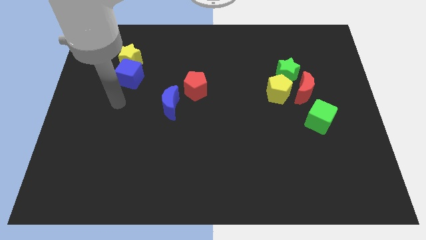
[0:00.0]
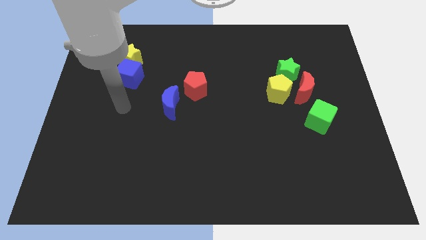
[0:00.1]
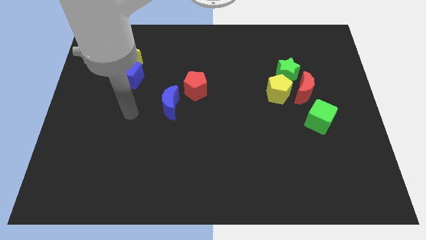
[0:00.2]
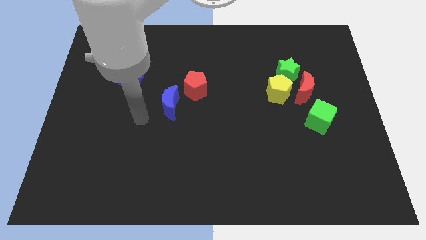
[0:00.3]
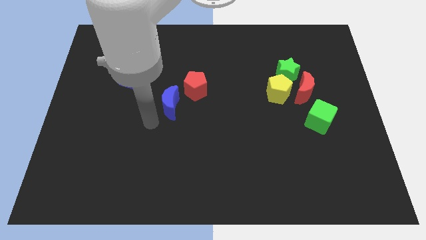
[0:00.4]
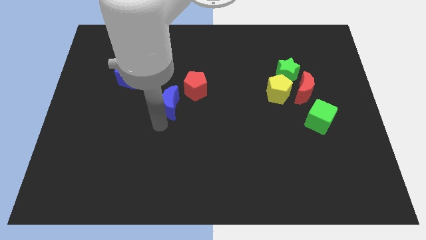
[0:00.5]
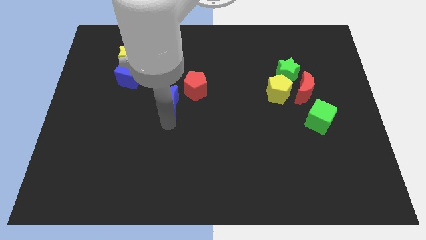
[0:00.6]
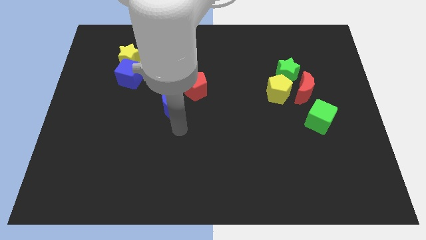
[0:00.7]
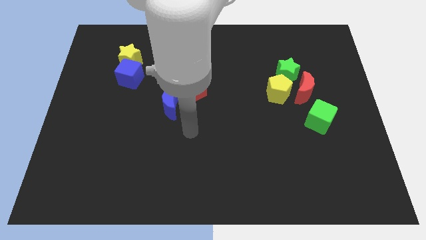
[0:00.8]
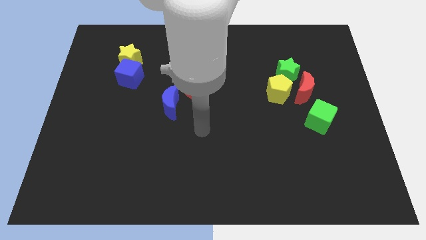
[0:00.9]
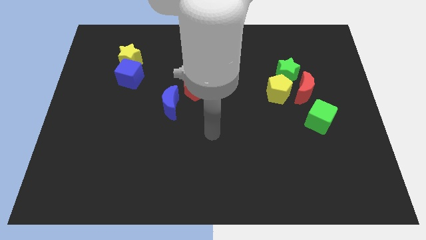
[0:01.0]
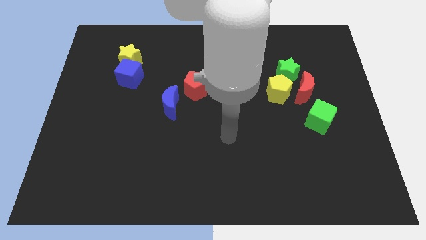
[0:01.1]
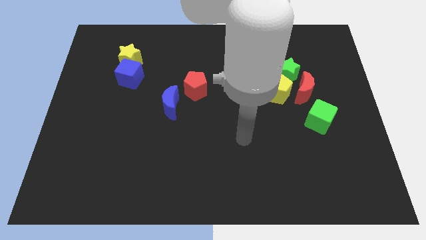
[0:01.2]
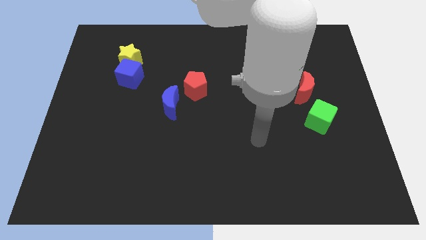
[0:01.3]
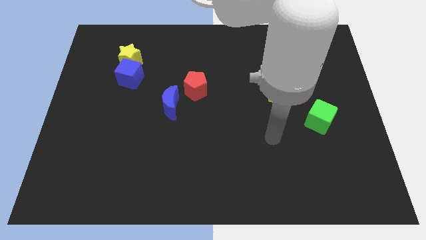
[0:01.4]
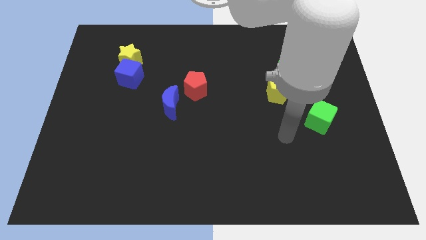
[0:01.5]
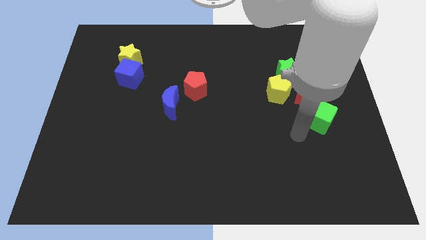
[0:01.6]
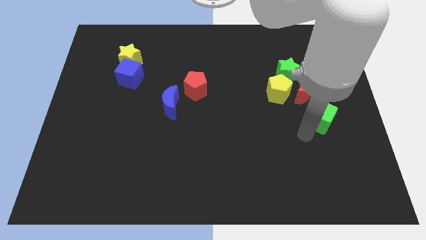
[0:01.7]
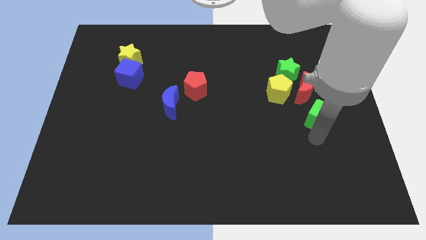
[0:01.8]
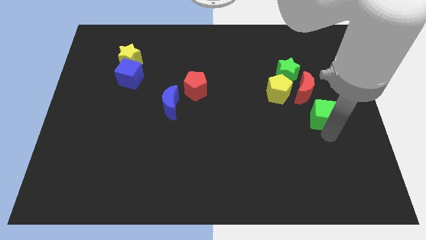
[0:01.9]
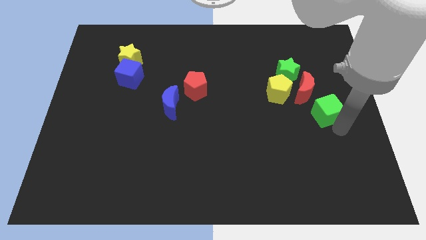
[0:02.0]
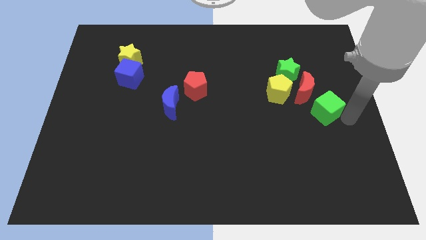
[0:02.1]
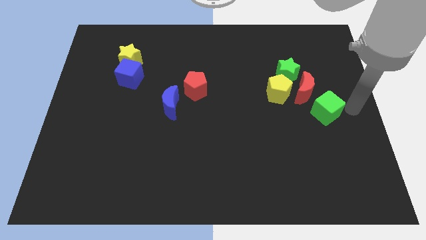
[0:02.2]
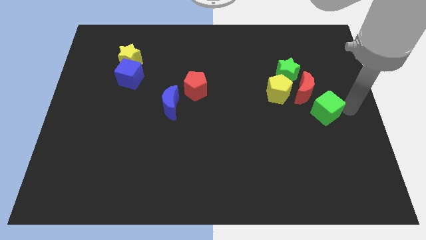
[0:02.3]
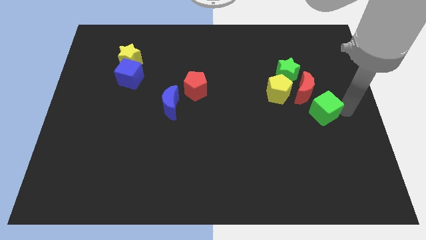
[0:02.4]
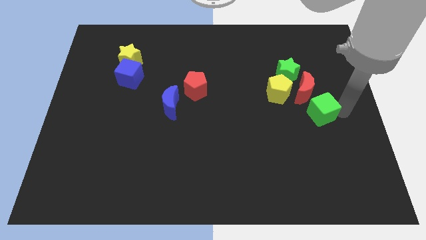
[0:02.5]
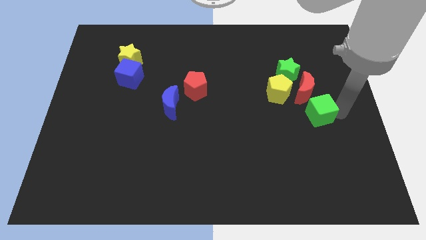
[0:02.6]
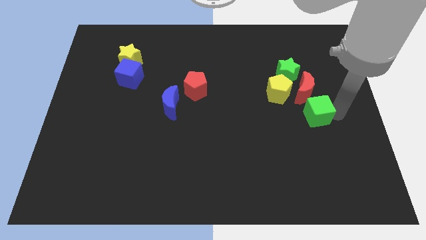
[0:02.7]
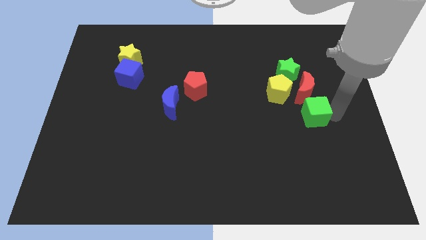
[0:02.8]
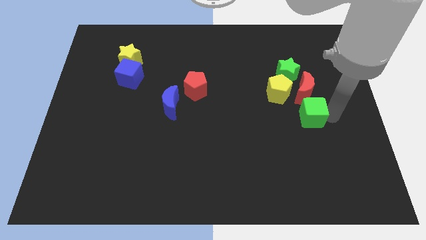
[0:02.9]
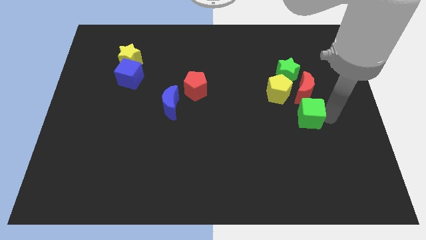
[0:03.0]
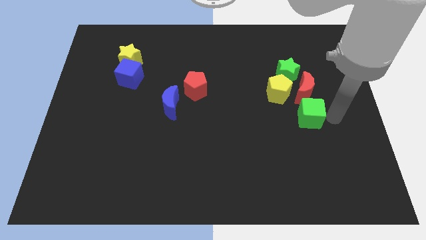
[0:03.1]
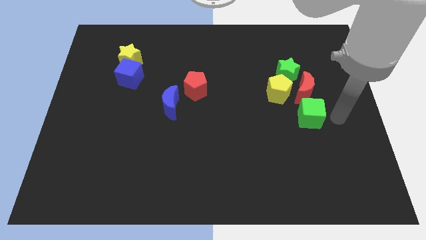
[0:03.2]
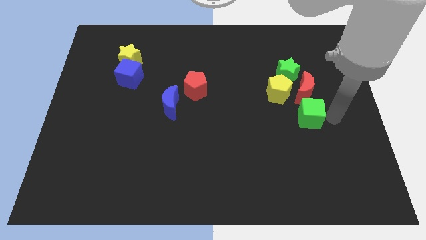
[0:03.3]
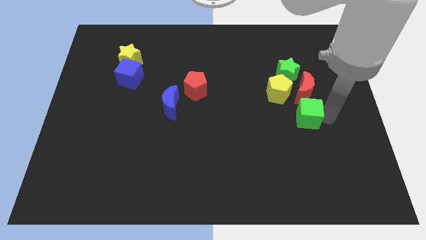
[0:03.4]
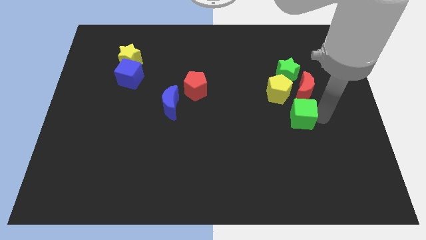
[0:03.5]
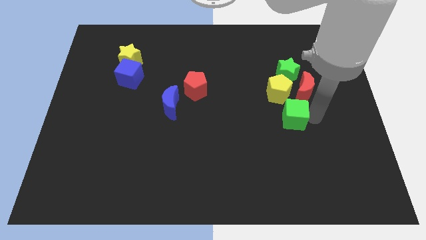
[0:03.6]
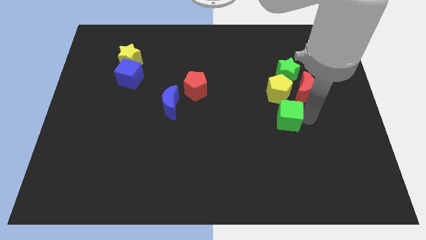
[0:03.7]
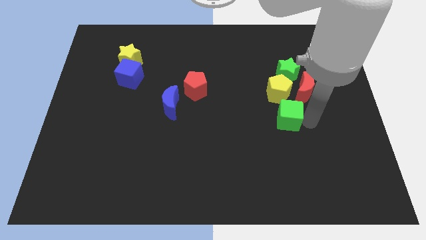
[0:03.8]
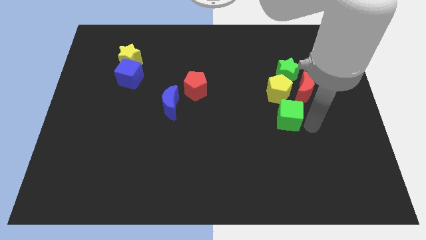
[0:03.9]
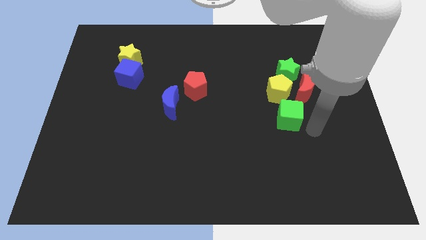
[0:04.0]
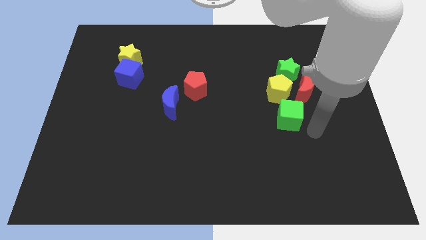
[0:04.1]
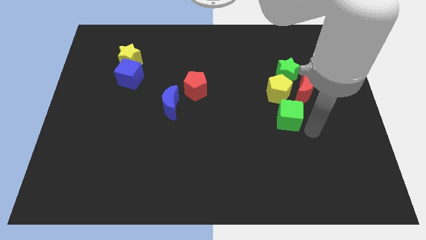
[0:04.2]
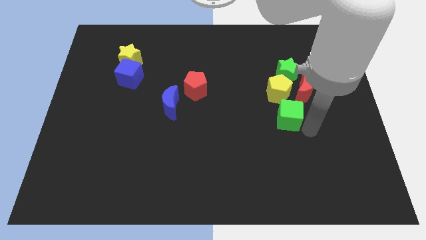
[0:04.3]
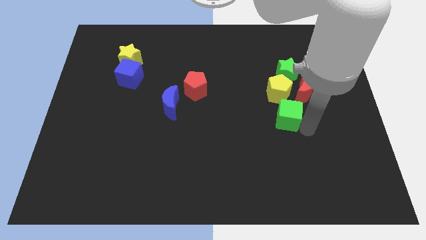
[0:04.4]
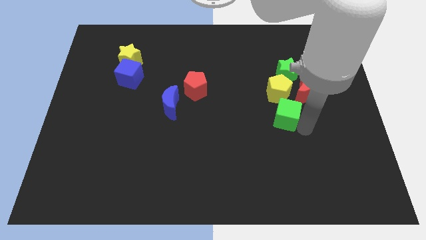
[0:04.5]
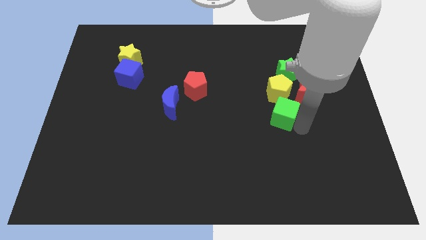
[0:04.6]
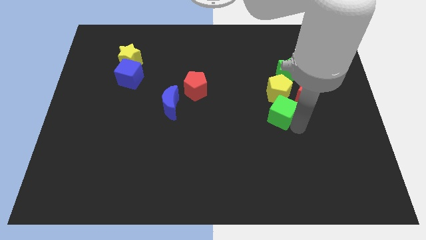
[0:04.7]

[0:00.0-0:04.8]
slide the green cube diagonally down and to the left of the yellow pentagon

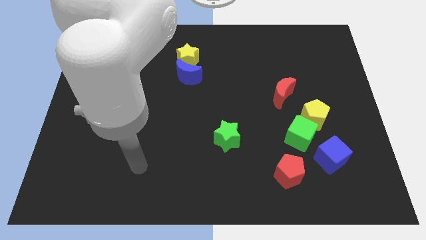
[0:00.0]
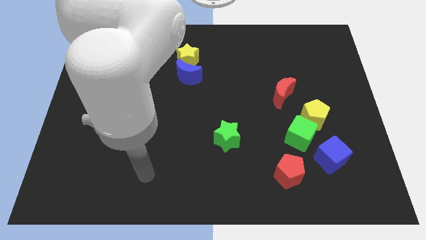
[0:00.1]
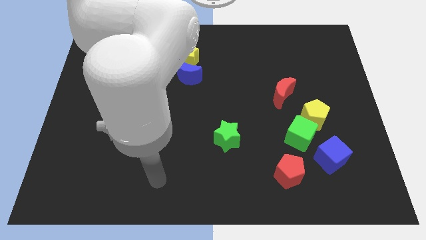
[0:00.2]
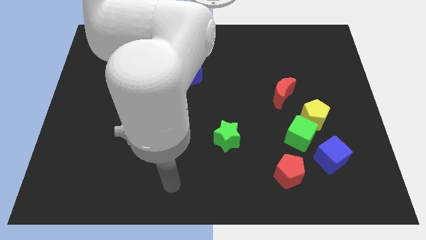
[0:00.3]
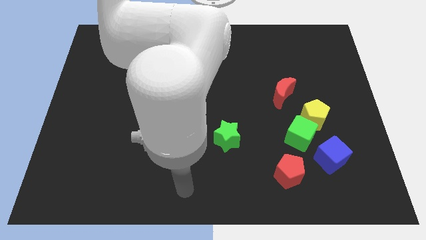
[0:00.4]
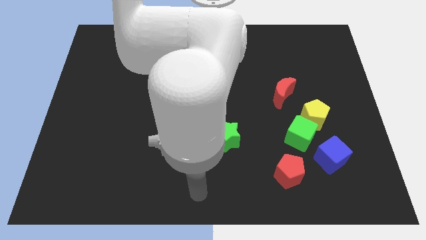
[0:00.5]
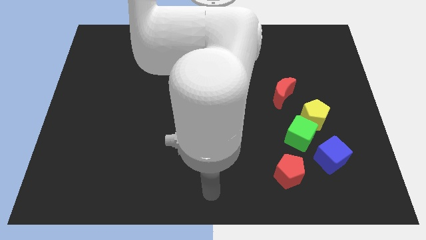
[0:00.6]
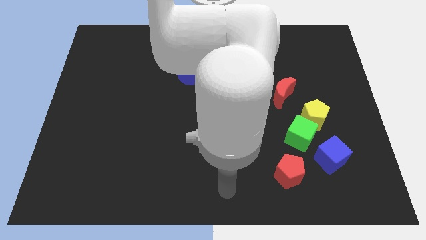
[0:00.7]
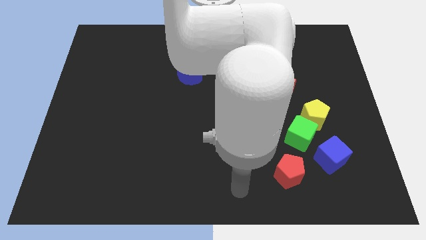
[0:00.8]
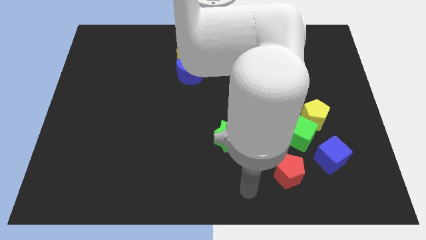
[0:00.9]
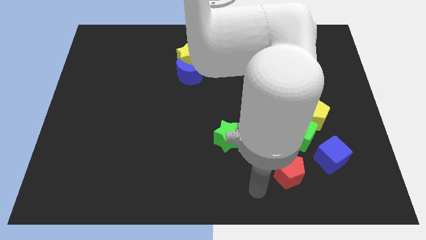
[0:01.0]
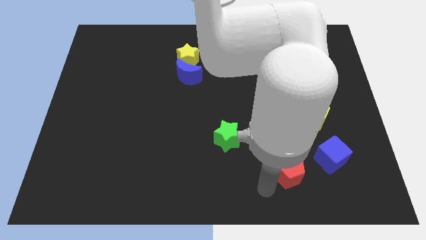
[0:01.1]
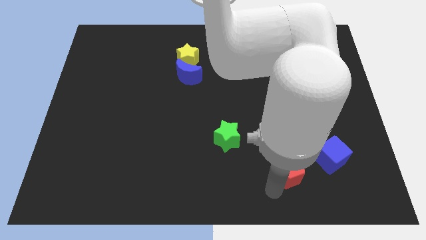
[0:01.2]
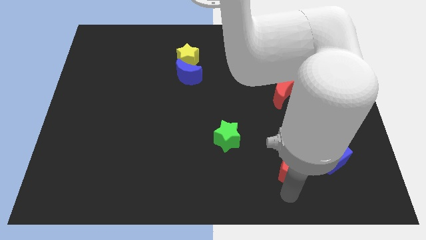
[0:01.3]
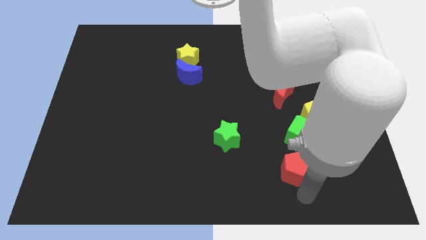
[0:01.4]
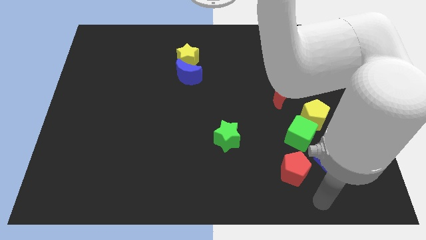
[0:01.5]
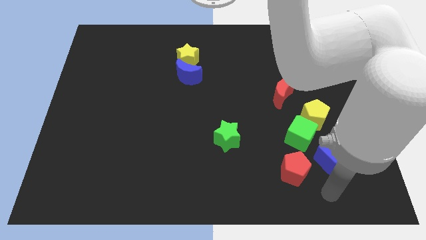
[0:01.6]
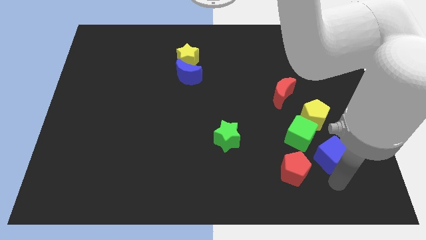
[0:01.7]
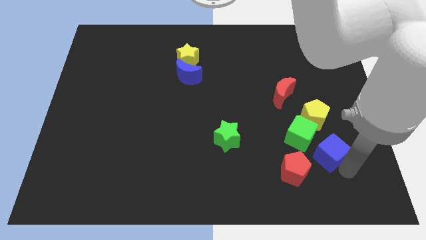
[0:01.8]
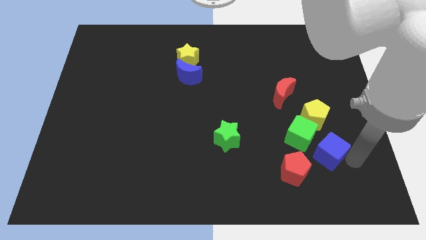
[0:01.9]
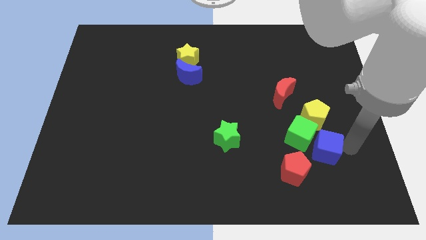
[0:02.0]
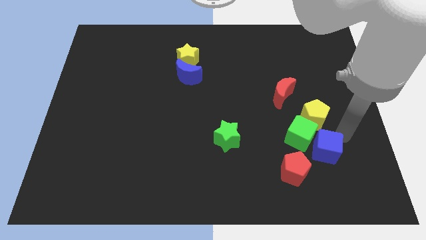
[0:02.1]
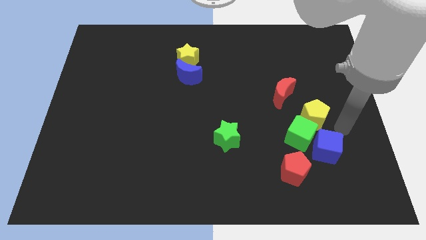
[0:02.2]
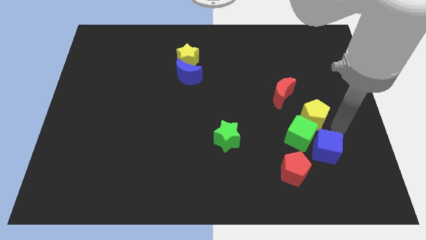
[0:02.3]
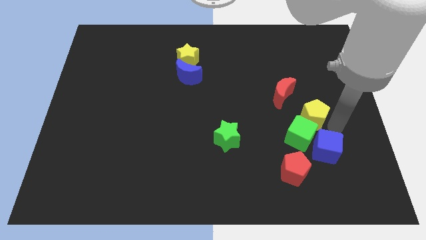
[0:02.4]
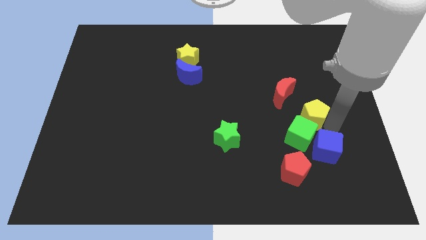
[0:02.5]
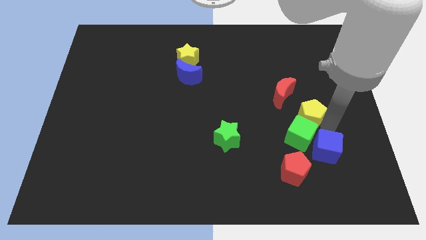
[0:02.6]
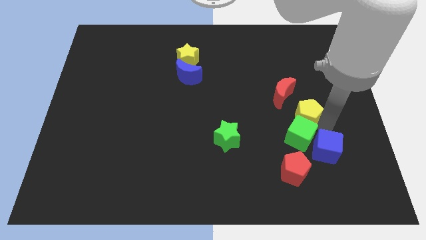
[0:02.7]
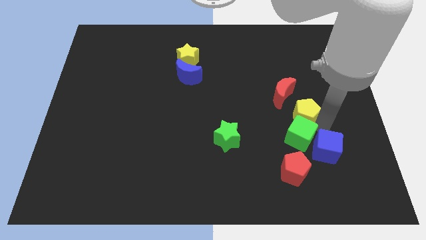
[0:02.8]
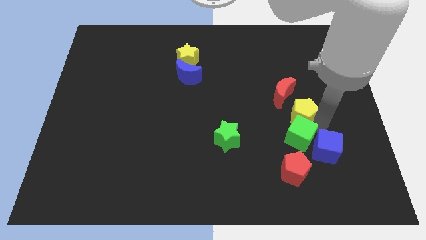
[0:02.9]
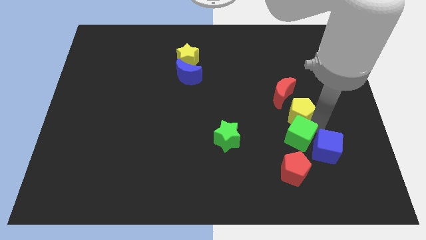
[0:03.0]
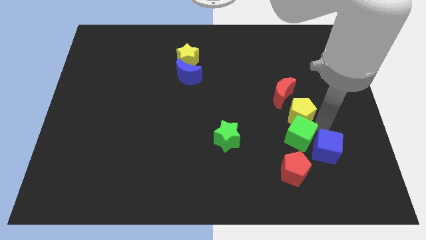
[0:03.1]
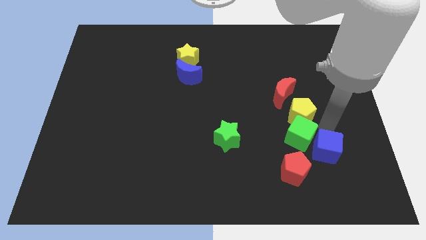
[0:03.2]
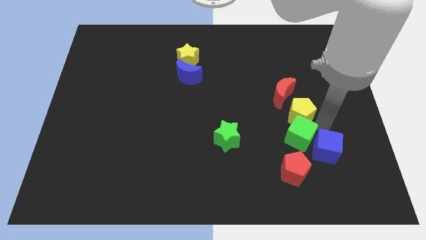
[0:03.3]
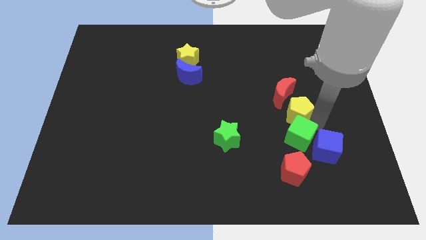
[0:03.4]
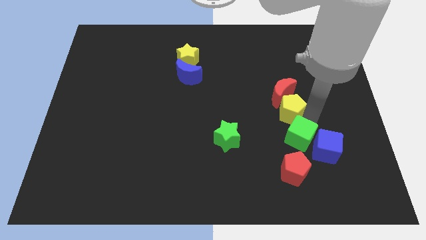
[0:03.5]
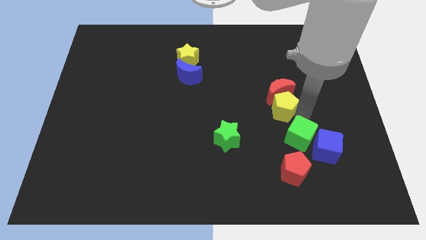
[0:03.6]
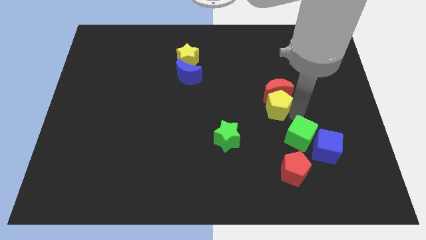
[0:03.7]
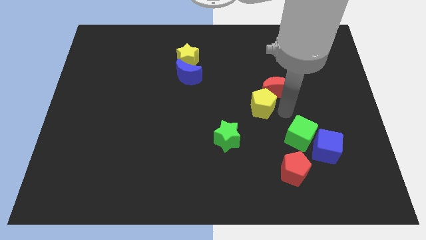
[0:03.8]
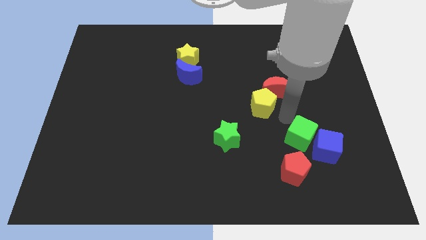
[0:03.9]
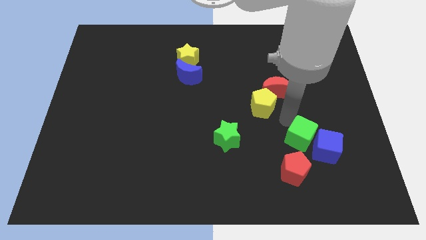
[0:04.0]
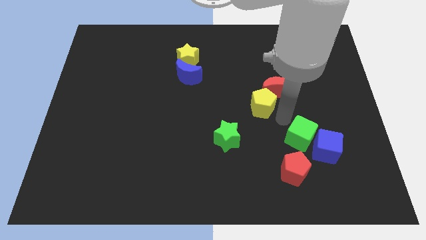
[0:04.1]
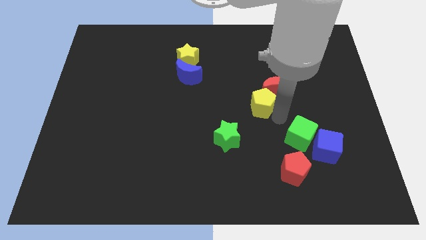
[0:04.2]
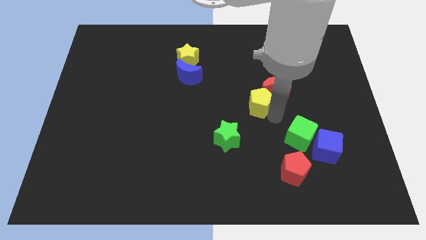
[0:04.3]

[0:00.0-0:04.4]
put the yellow pentagon just left of the red moon
